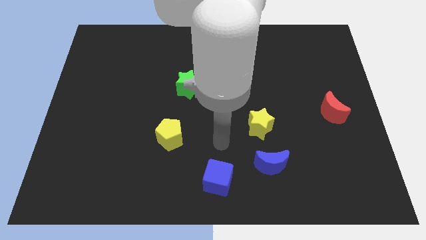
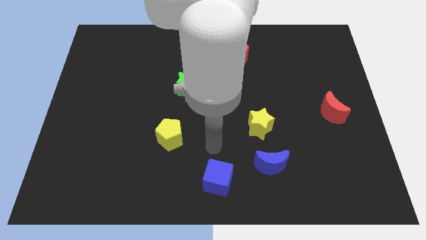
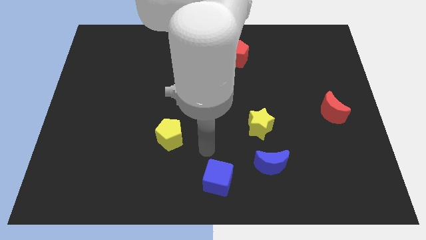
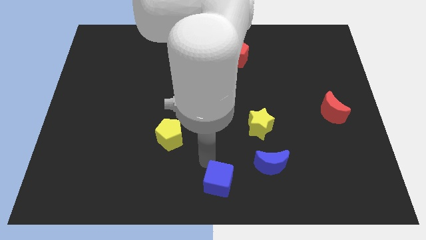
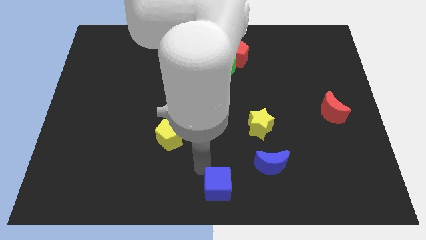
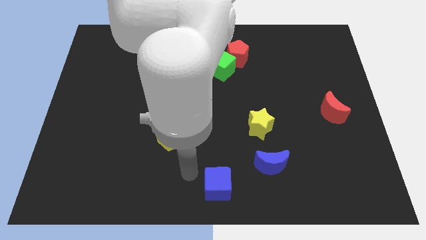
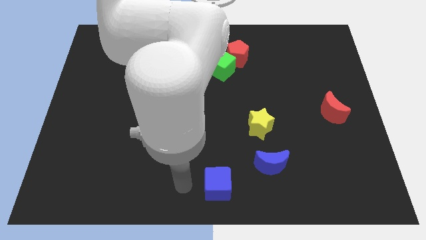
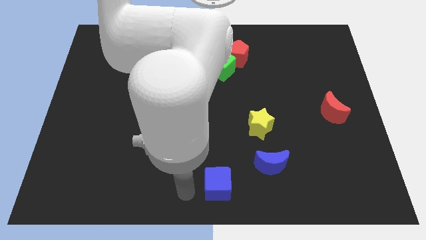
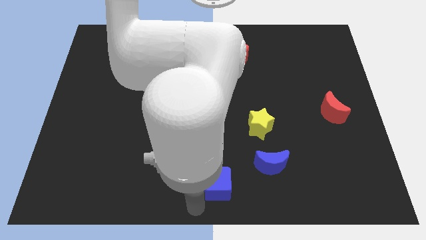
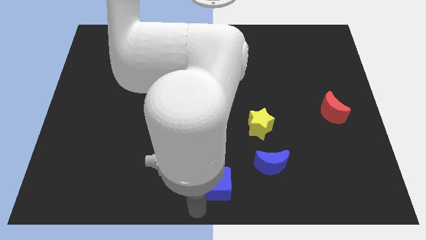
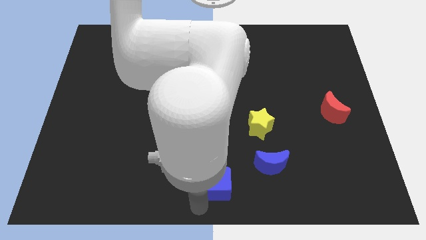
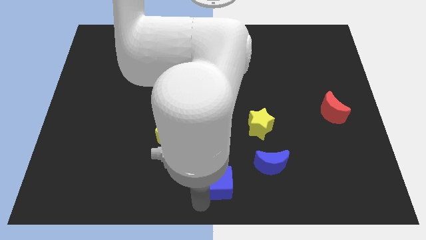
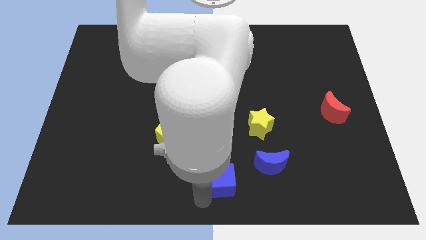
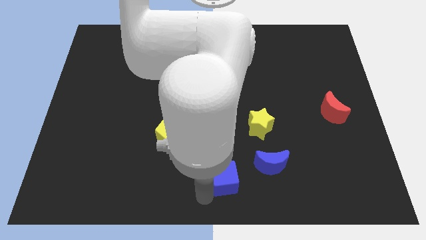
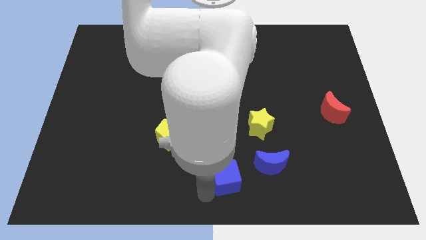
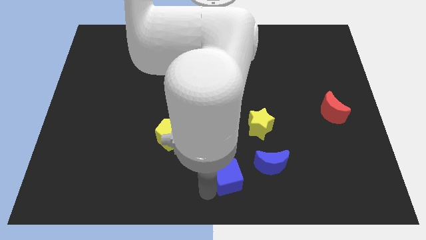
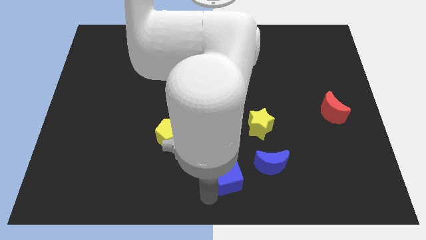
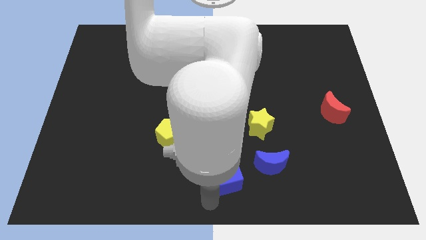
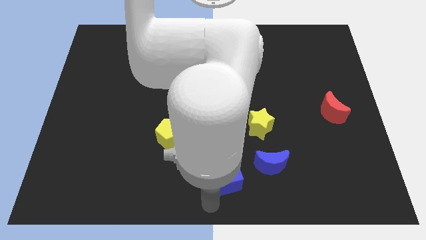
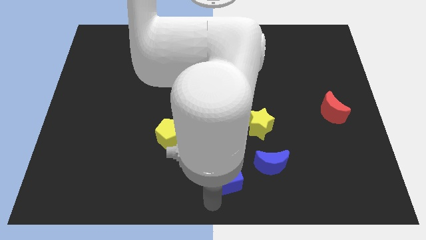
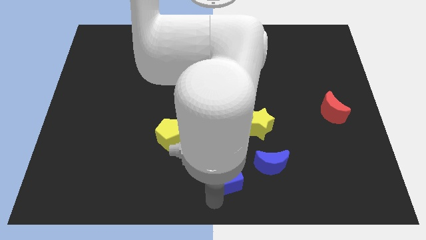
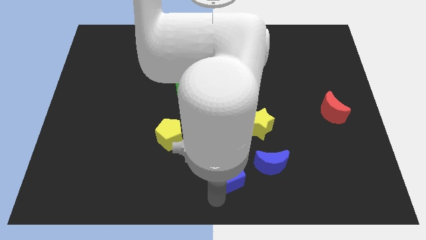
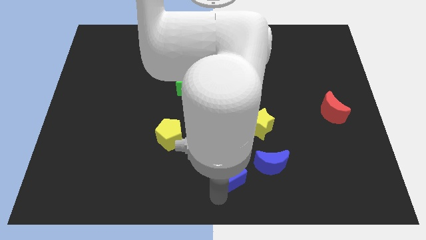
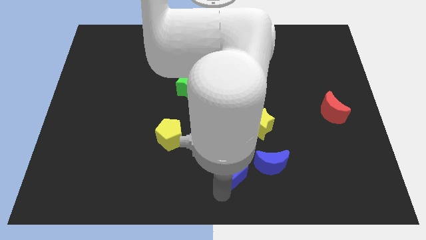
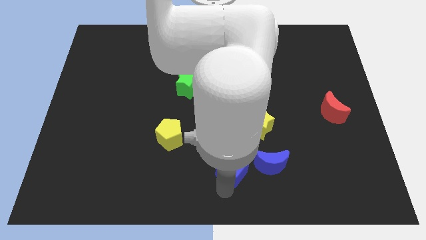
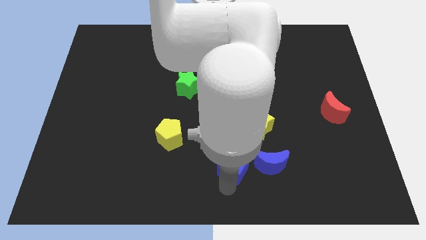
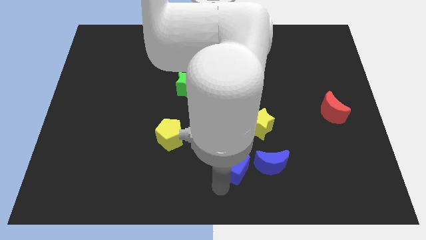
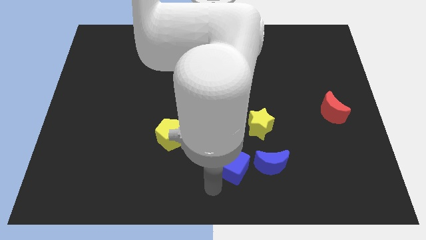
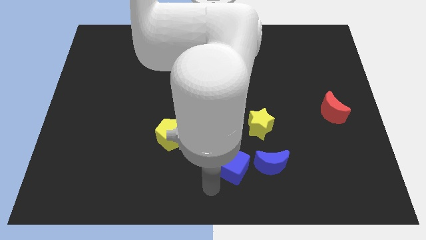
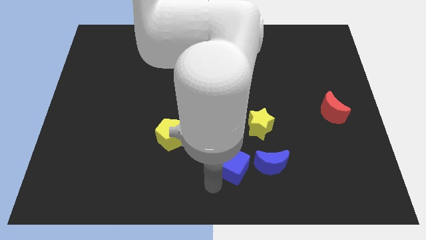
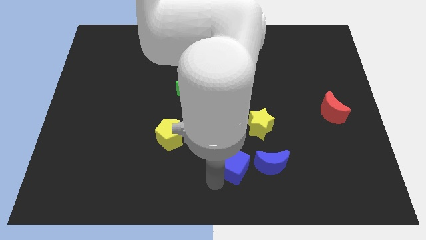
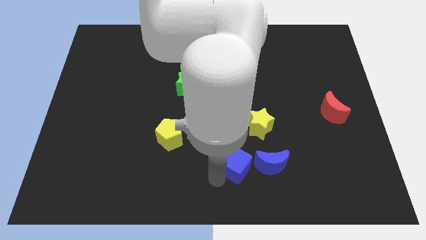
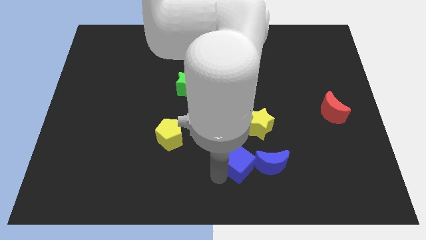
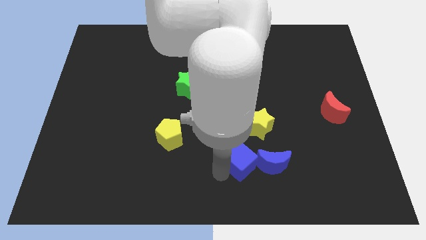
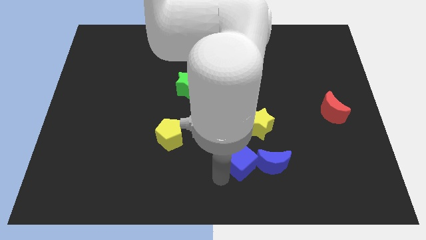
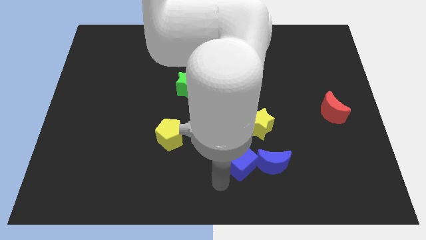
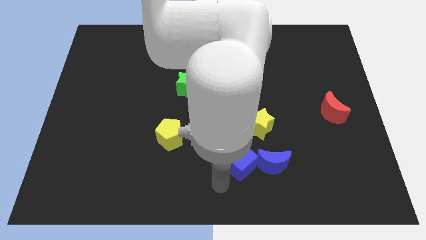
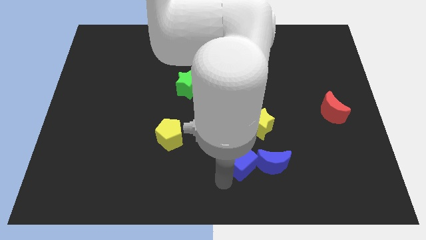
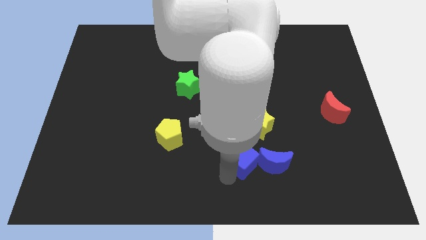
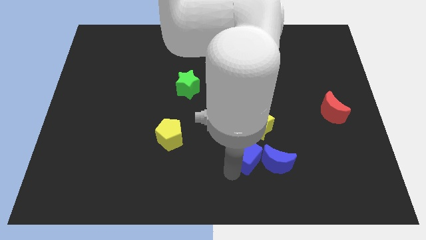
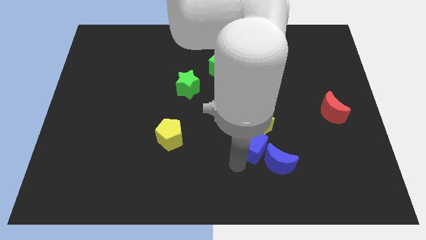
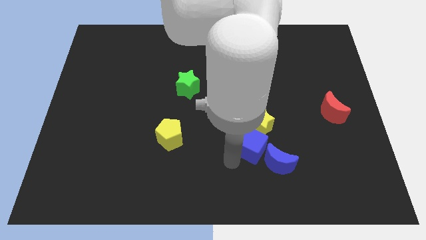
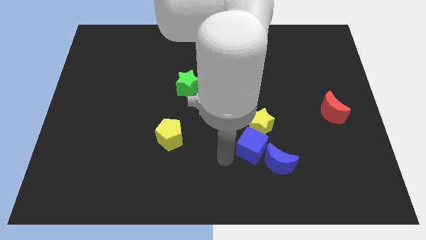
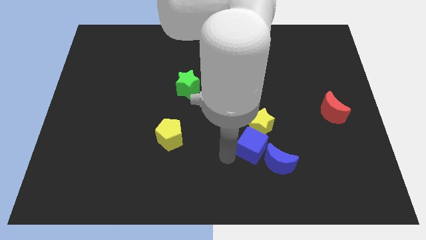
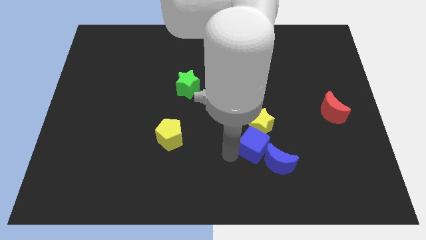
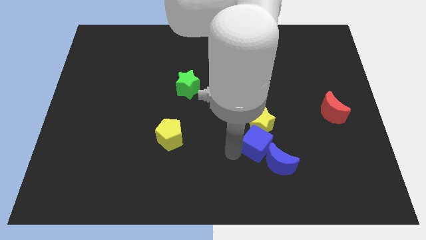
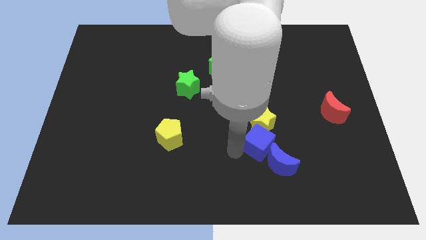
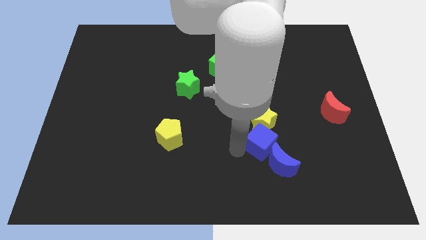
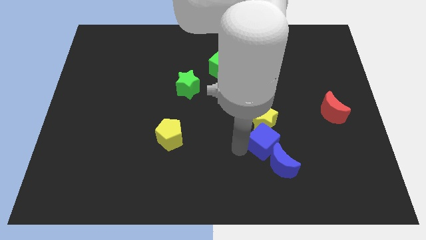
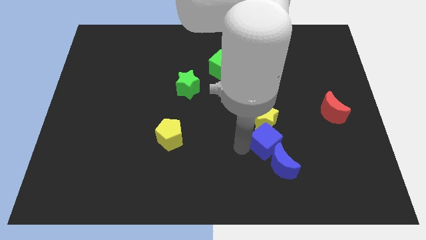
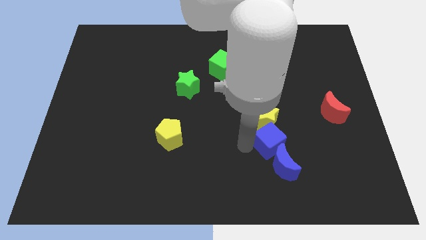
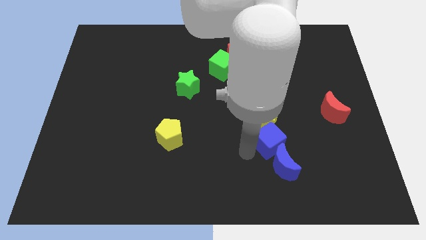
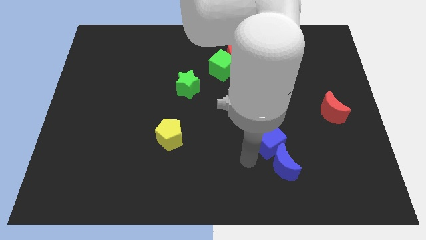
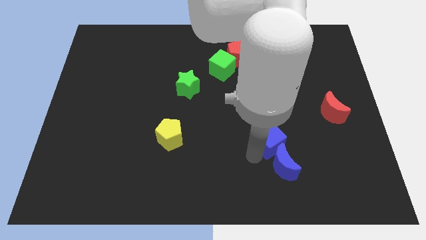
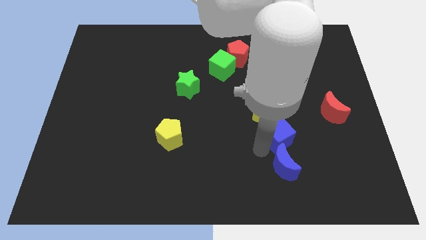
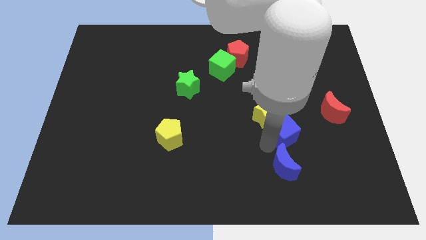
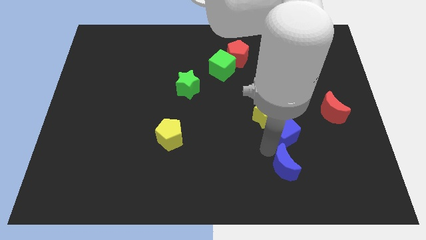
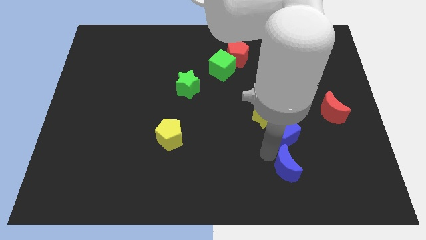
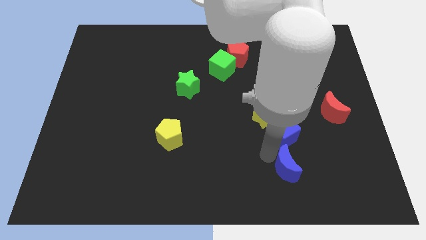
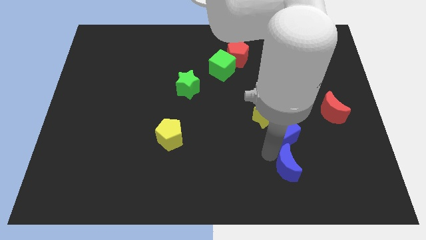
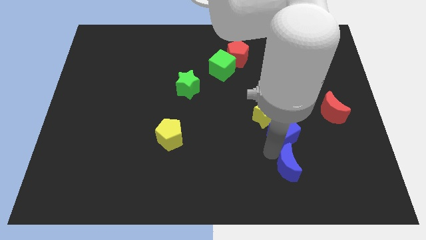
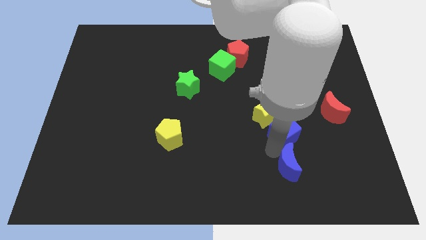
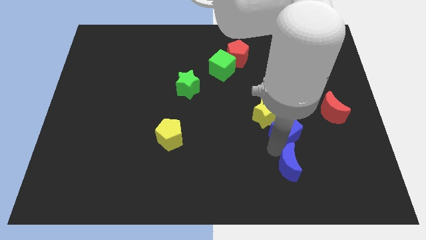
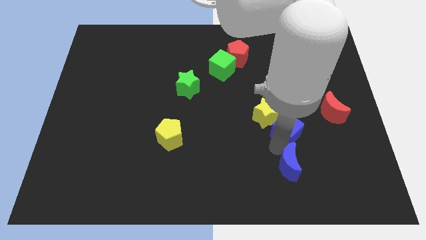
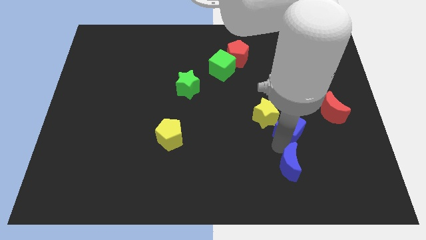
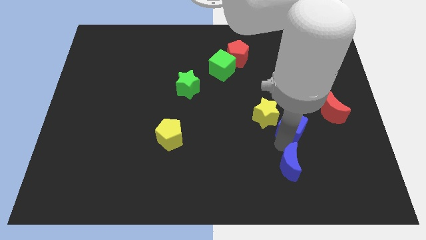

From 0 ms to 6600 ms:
move the blue cube up and to the right diagonally

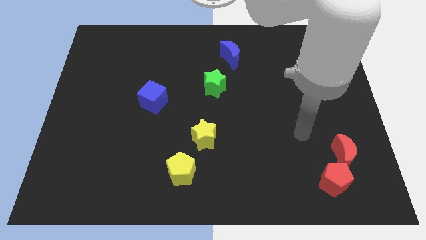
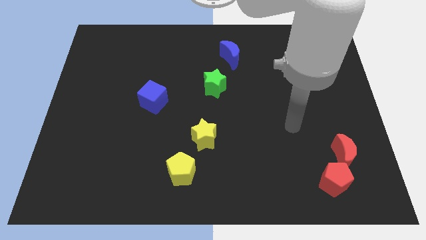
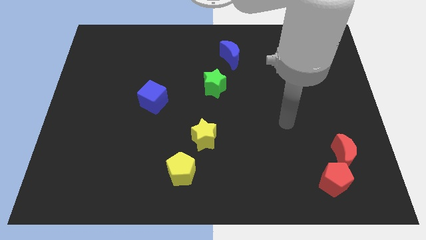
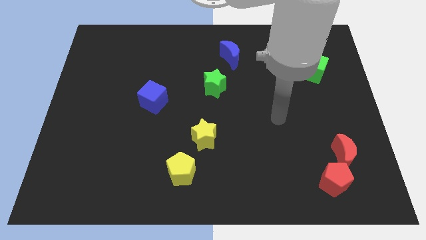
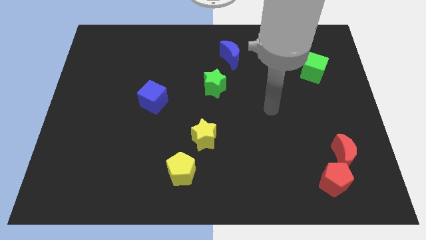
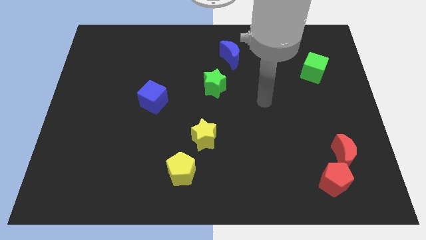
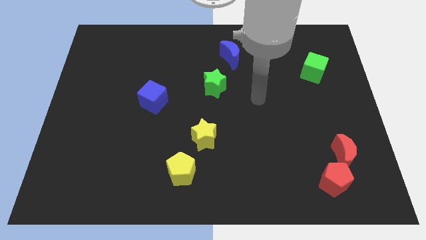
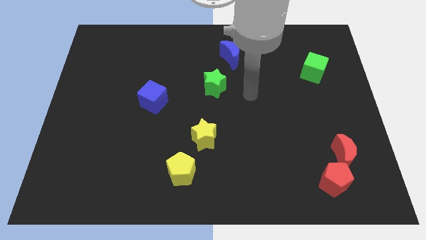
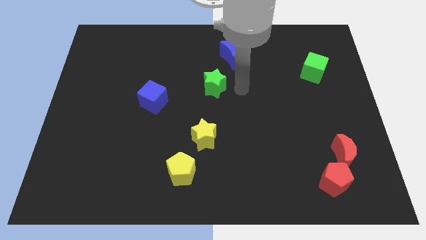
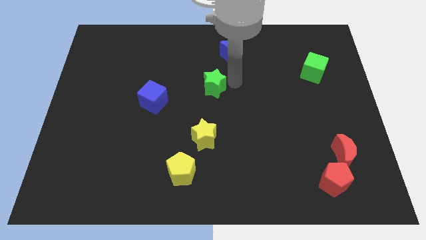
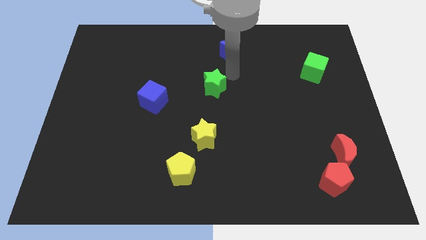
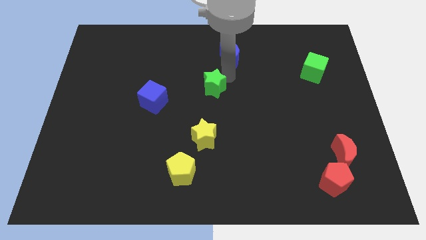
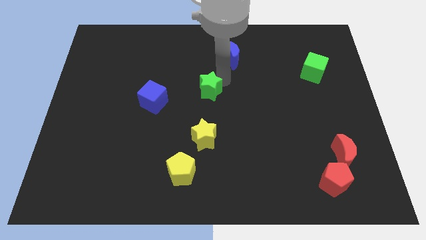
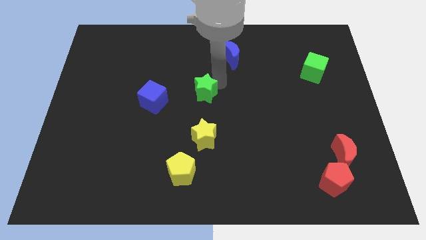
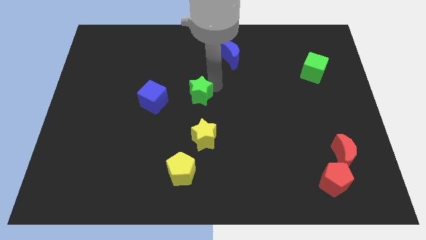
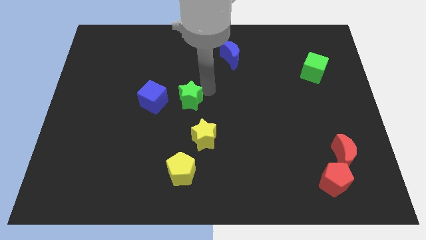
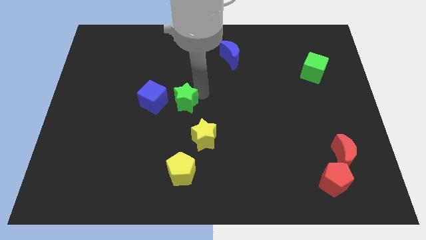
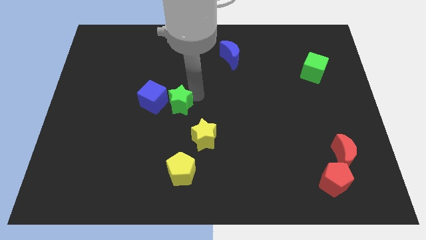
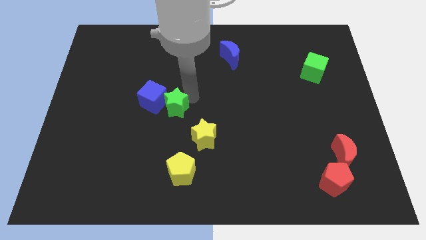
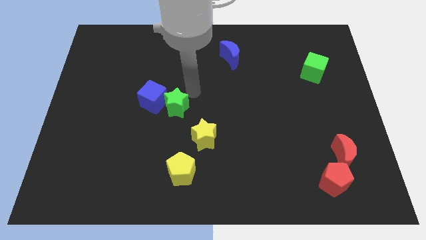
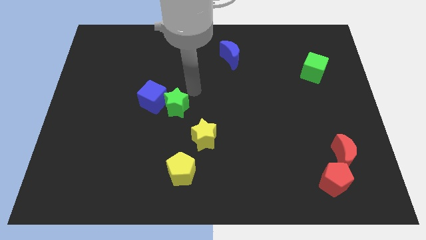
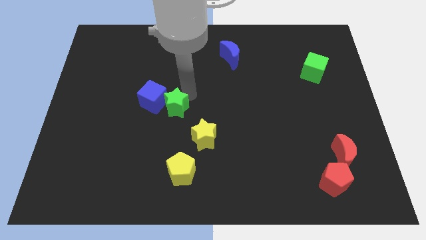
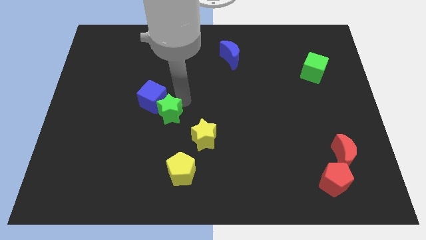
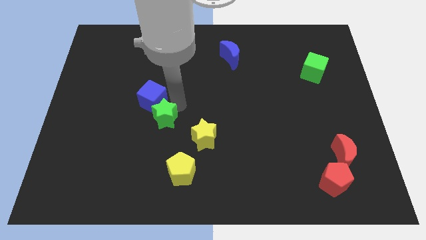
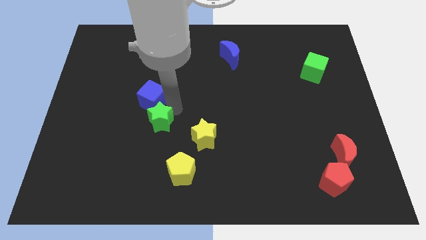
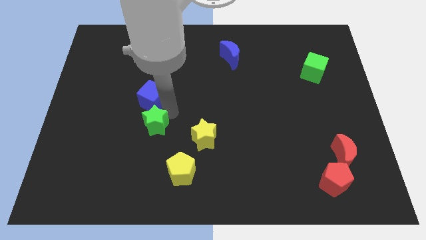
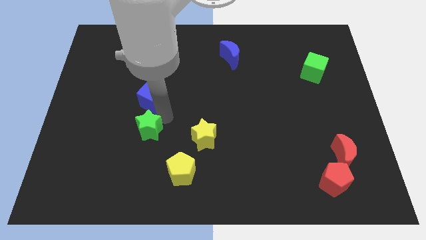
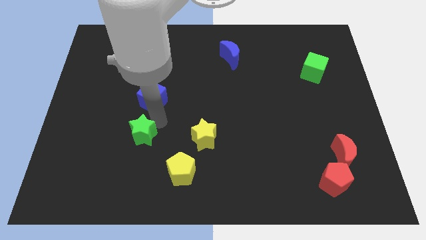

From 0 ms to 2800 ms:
move the green star down and then to the left
